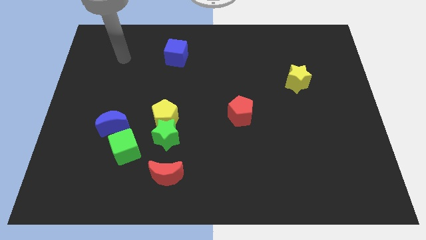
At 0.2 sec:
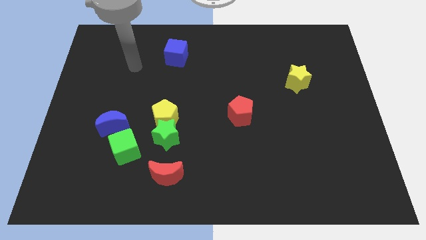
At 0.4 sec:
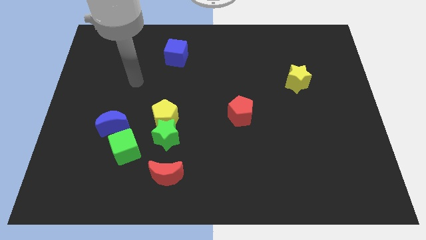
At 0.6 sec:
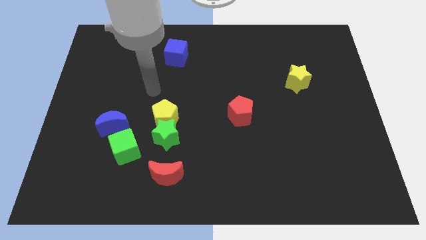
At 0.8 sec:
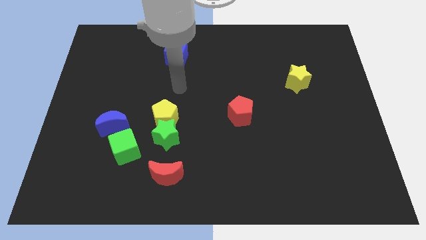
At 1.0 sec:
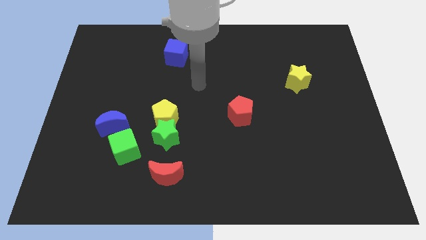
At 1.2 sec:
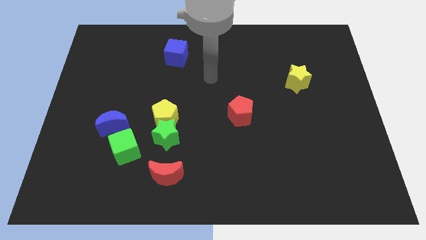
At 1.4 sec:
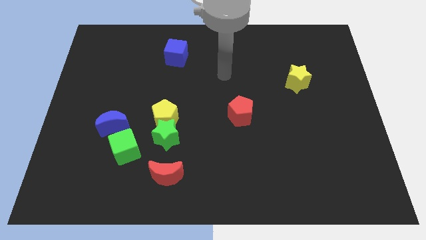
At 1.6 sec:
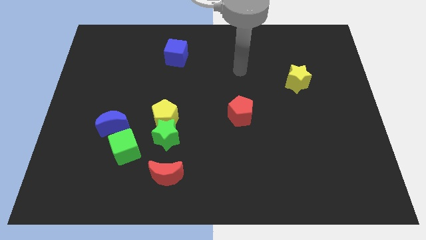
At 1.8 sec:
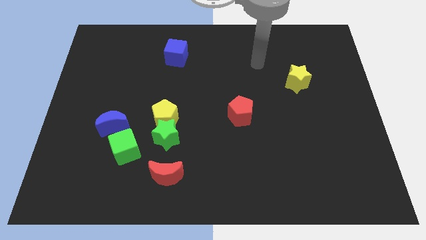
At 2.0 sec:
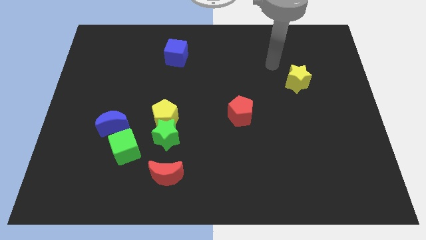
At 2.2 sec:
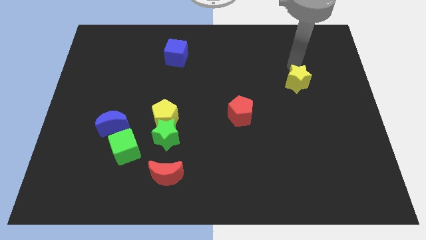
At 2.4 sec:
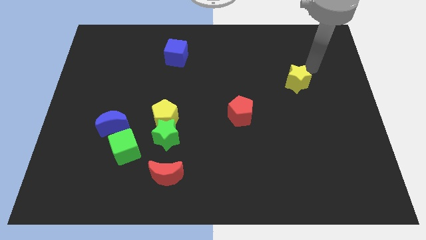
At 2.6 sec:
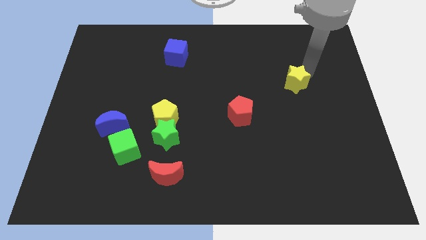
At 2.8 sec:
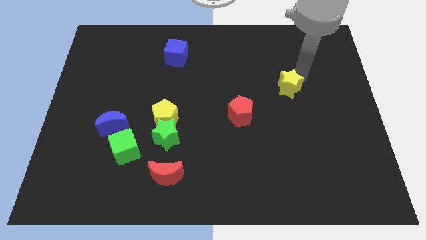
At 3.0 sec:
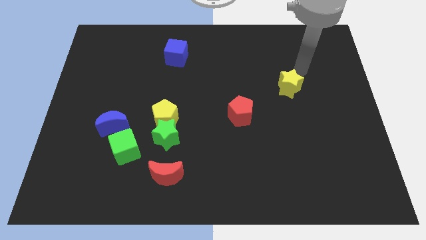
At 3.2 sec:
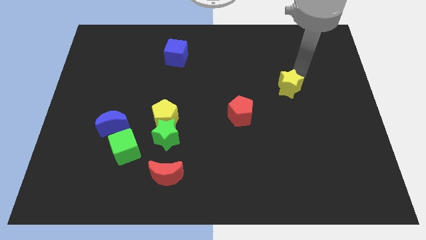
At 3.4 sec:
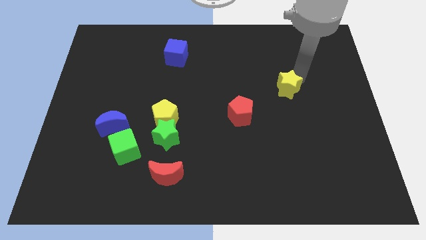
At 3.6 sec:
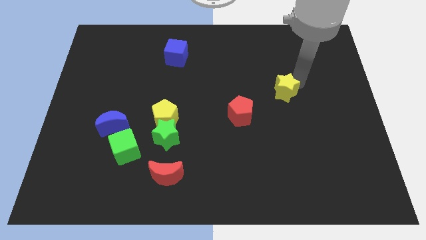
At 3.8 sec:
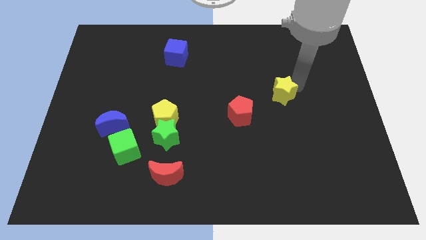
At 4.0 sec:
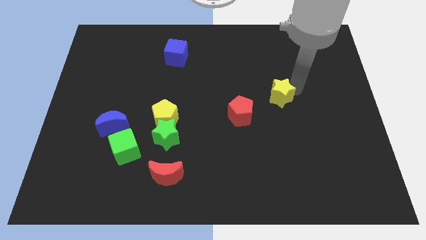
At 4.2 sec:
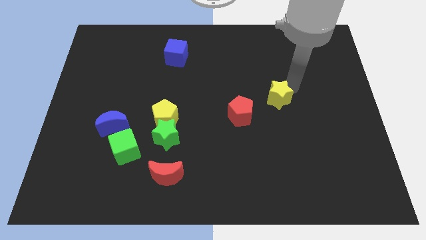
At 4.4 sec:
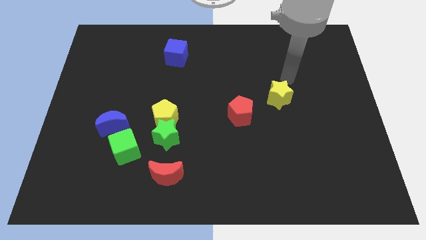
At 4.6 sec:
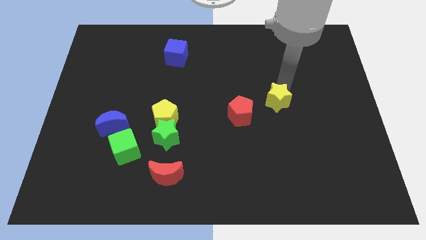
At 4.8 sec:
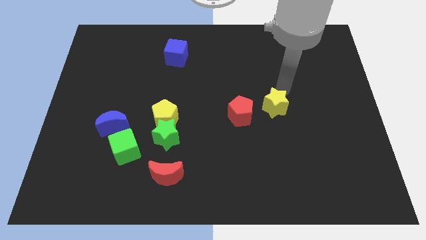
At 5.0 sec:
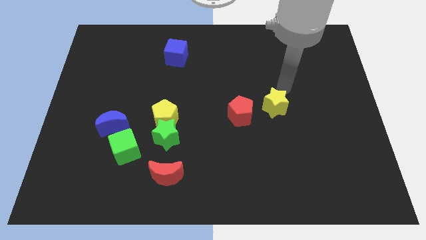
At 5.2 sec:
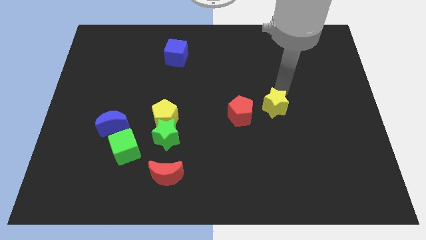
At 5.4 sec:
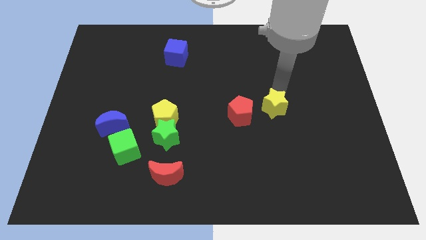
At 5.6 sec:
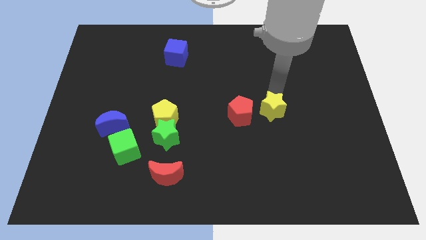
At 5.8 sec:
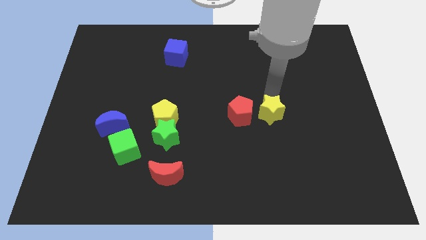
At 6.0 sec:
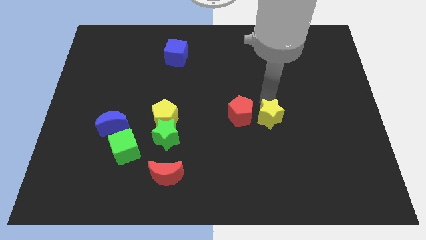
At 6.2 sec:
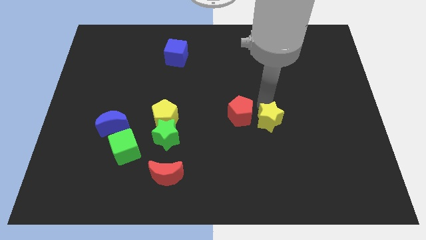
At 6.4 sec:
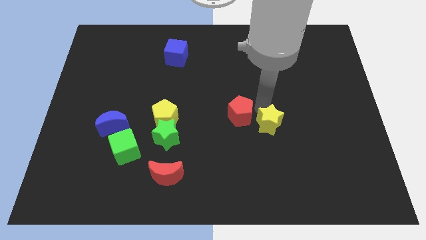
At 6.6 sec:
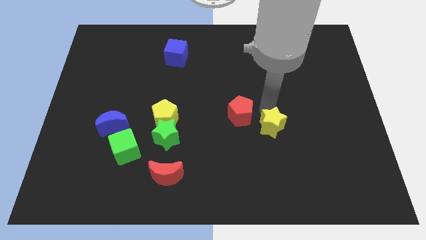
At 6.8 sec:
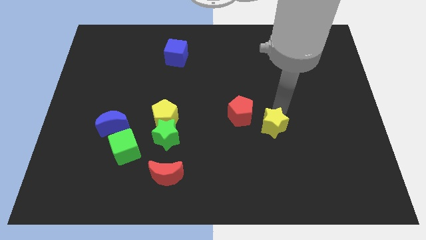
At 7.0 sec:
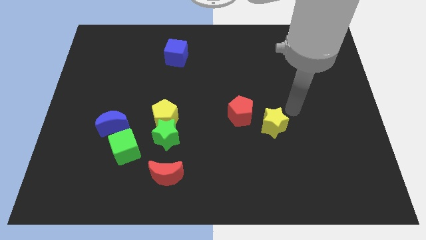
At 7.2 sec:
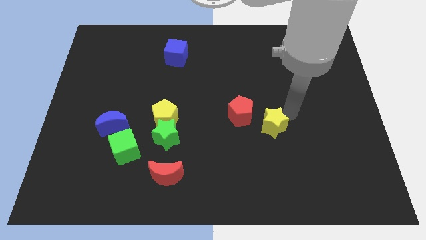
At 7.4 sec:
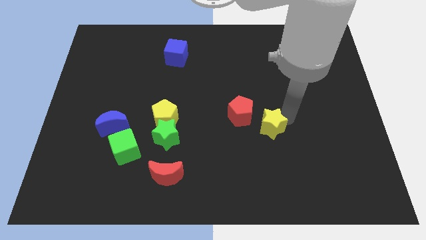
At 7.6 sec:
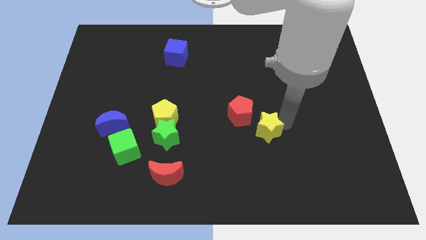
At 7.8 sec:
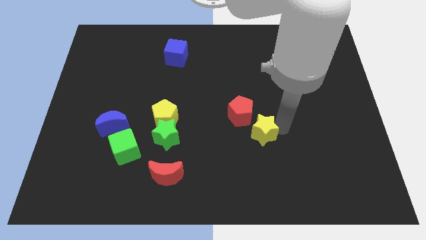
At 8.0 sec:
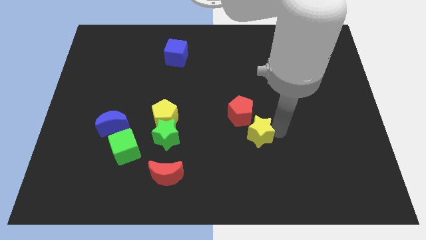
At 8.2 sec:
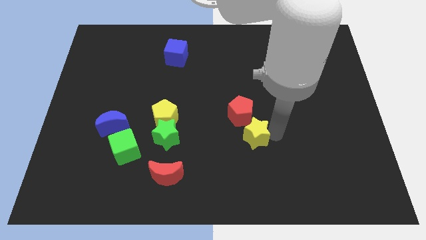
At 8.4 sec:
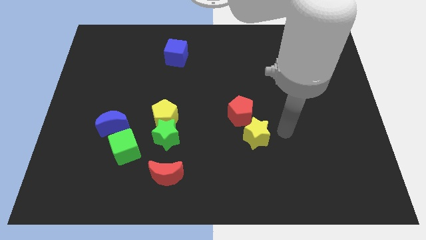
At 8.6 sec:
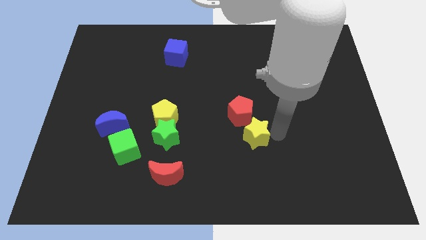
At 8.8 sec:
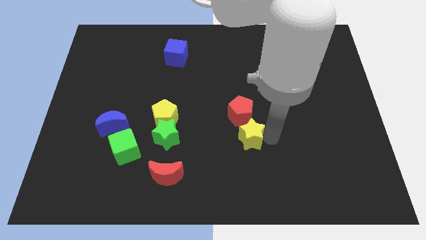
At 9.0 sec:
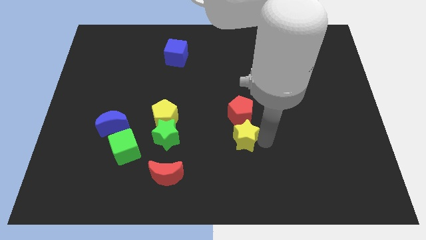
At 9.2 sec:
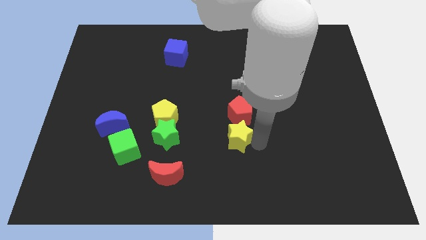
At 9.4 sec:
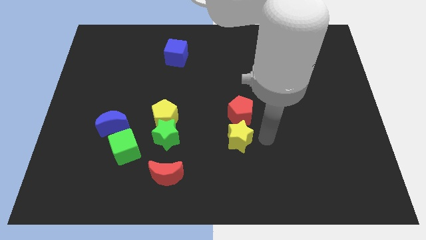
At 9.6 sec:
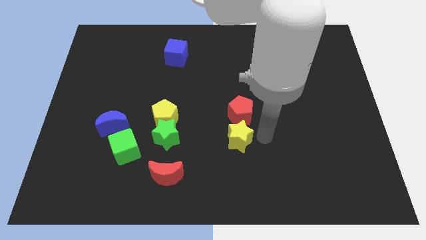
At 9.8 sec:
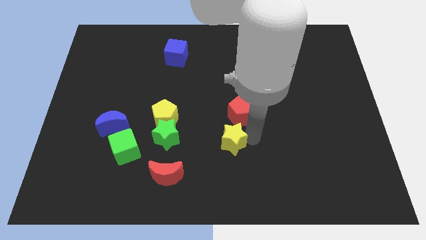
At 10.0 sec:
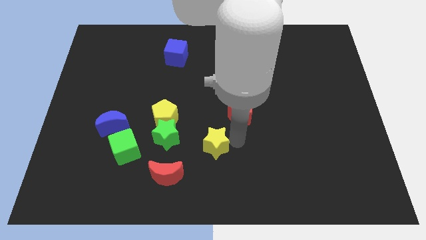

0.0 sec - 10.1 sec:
push the yellow star diagonally up and to the right of the red moon

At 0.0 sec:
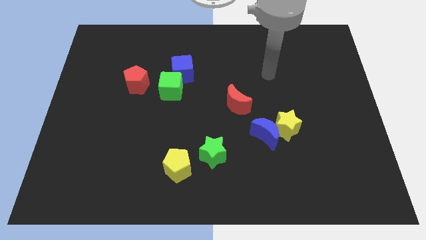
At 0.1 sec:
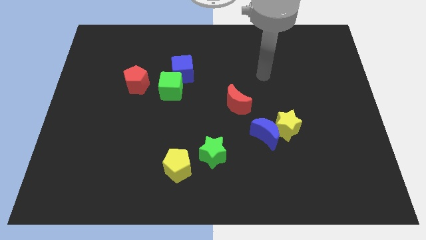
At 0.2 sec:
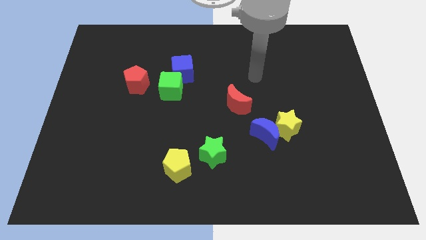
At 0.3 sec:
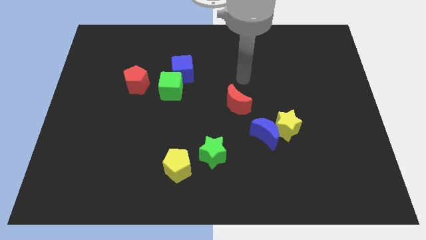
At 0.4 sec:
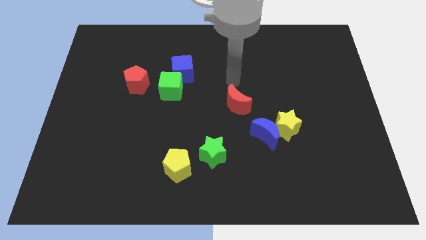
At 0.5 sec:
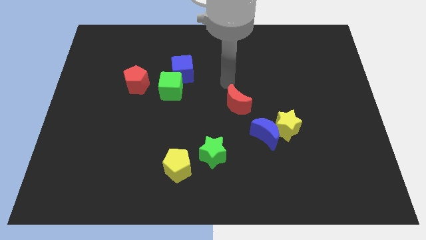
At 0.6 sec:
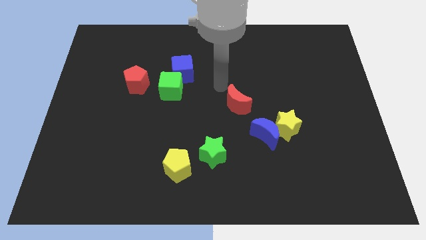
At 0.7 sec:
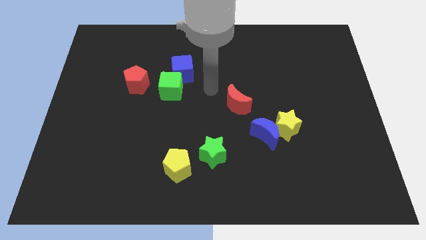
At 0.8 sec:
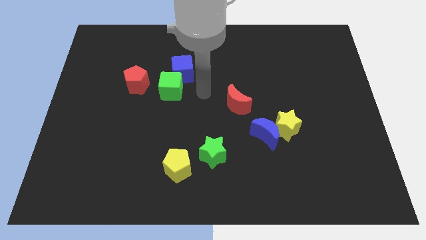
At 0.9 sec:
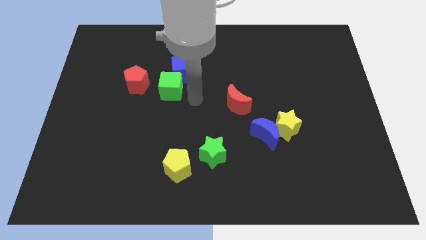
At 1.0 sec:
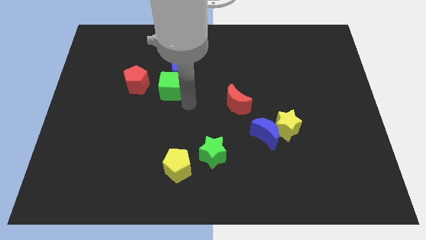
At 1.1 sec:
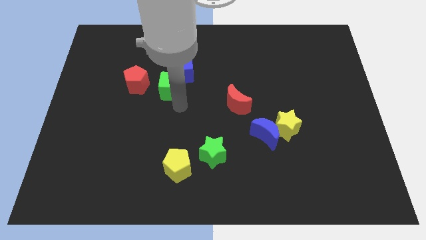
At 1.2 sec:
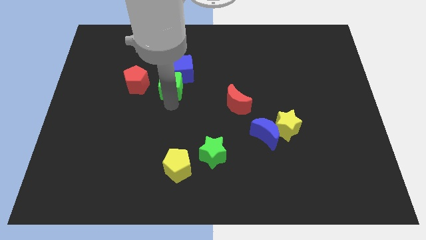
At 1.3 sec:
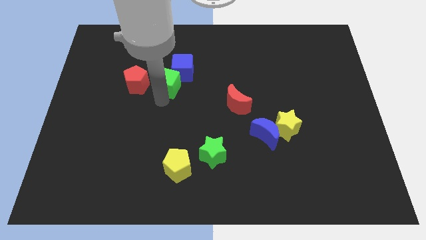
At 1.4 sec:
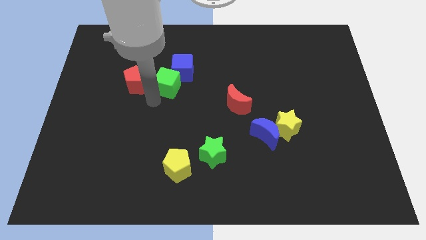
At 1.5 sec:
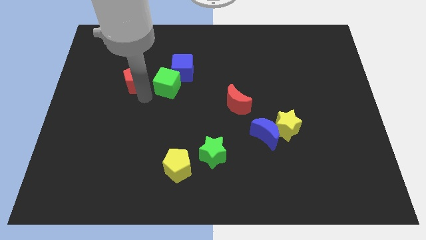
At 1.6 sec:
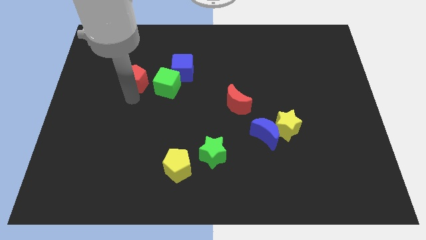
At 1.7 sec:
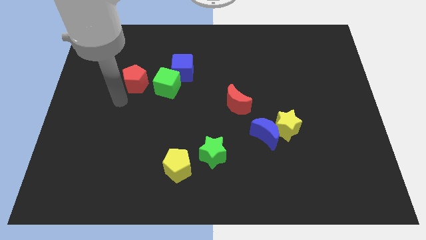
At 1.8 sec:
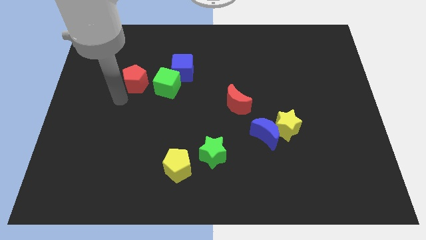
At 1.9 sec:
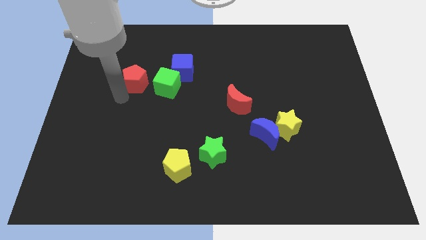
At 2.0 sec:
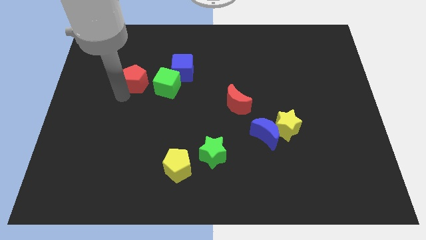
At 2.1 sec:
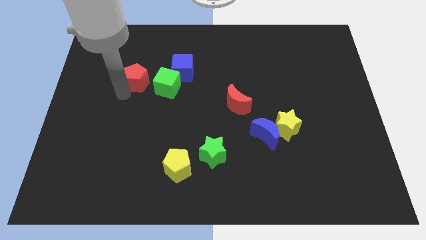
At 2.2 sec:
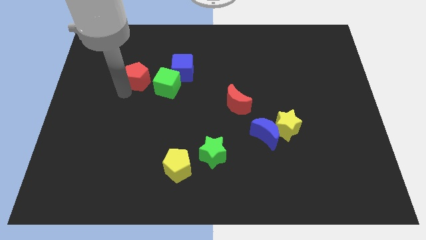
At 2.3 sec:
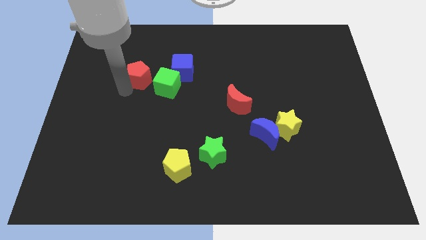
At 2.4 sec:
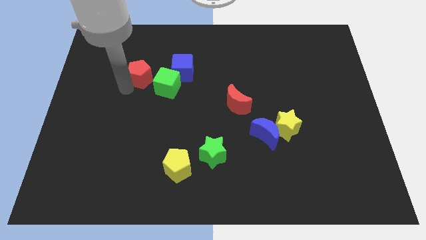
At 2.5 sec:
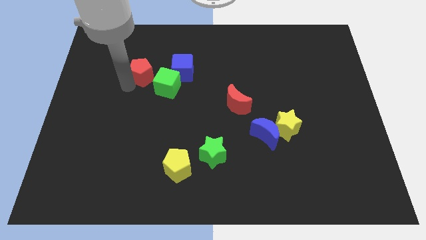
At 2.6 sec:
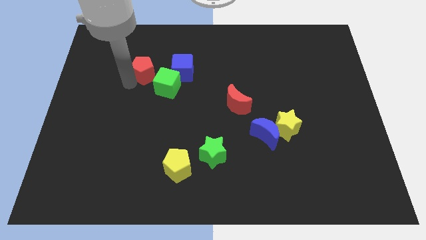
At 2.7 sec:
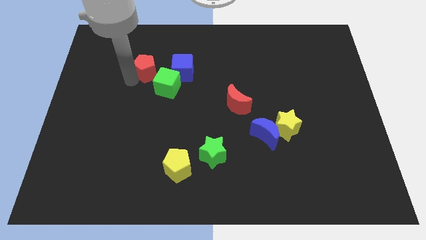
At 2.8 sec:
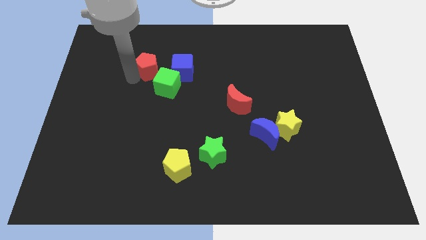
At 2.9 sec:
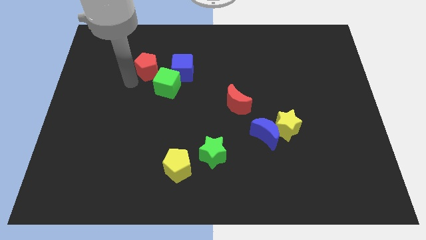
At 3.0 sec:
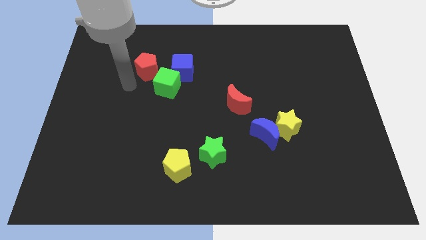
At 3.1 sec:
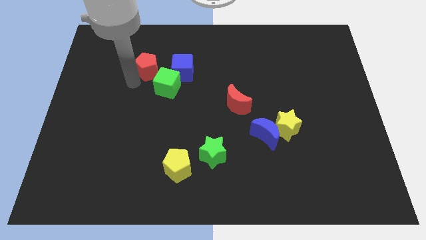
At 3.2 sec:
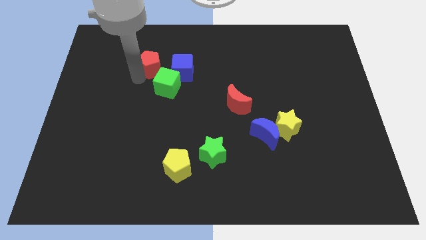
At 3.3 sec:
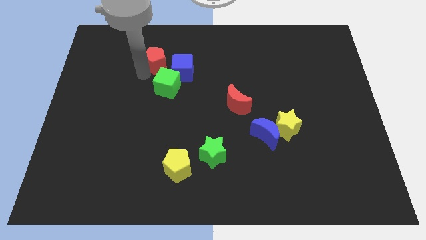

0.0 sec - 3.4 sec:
put the red pentagon to the top left of the blue cube
